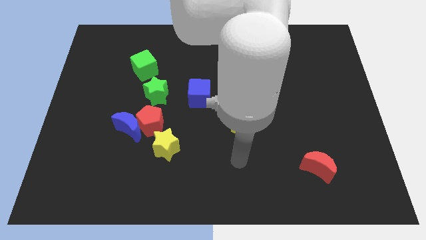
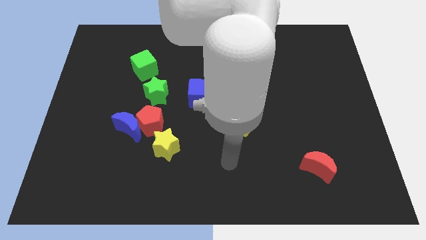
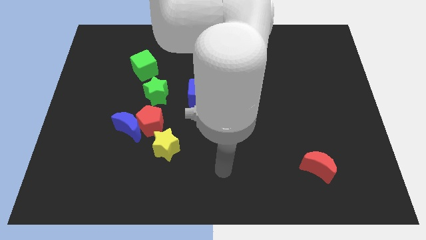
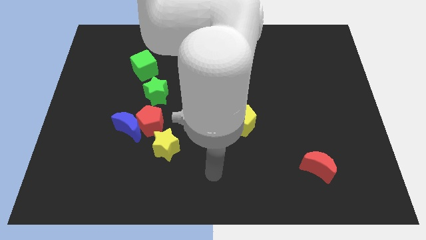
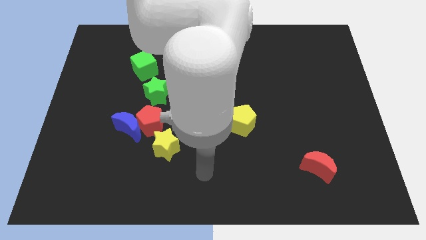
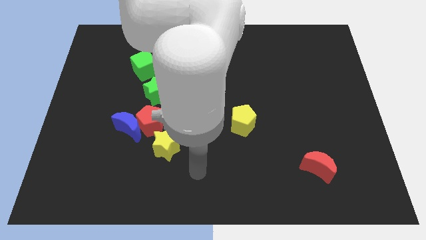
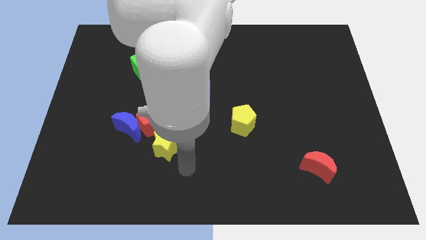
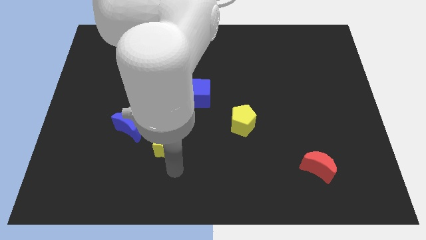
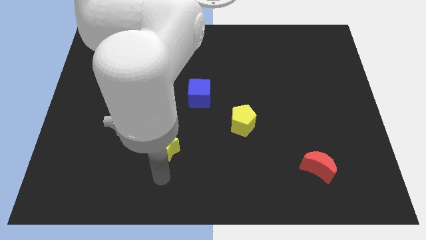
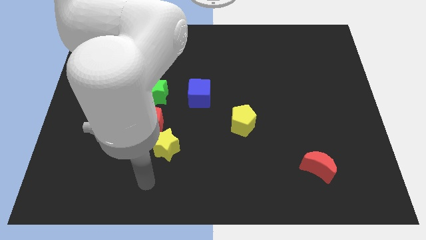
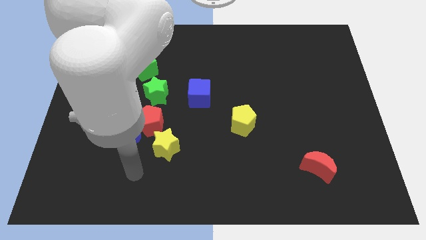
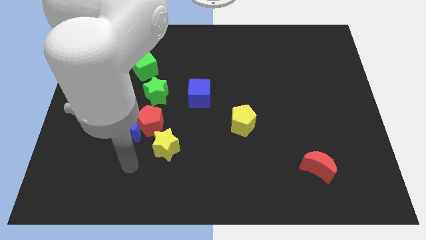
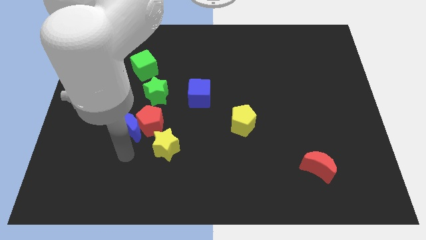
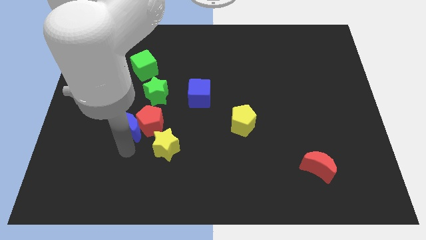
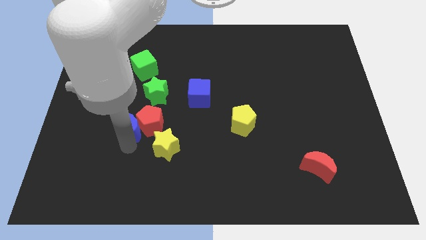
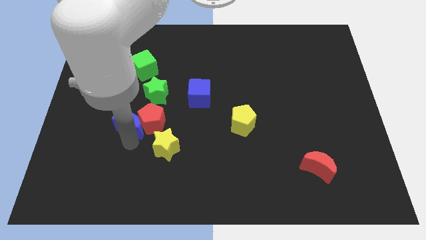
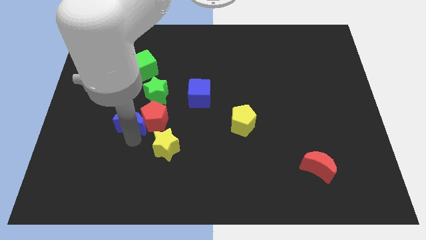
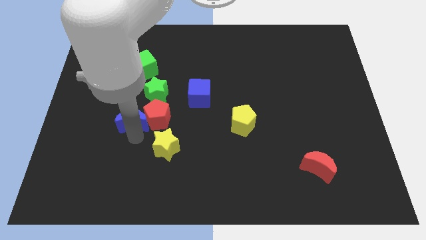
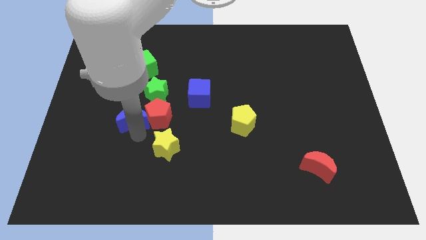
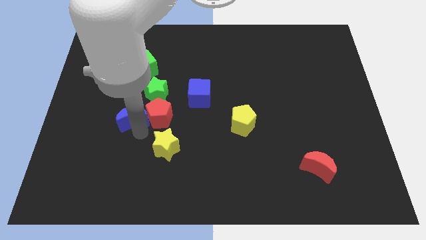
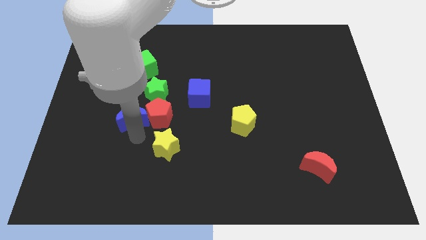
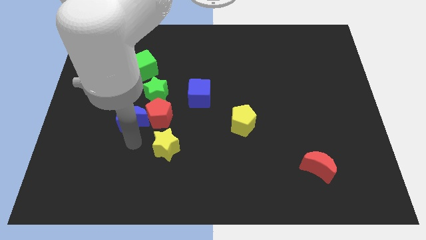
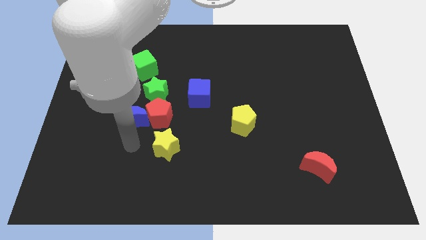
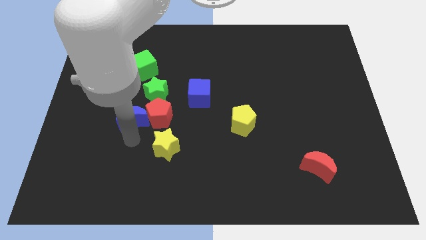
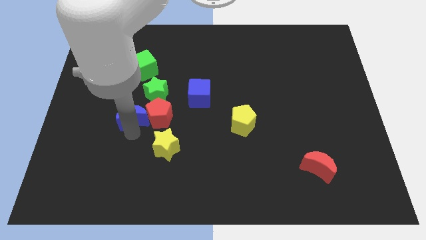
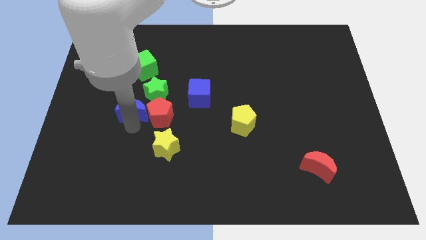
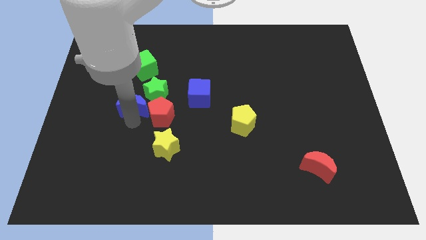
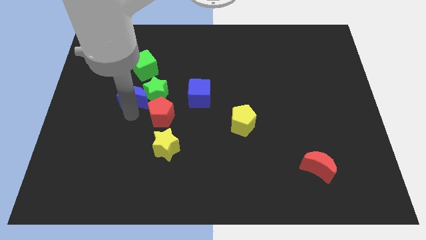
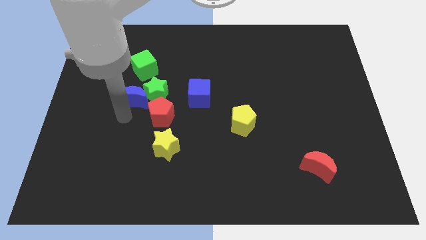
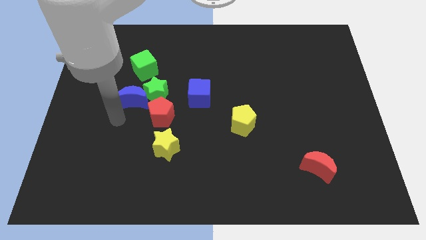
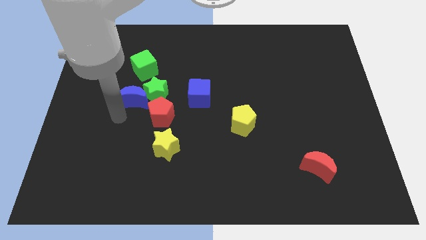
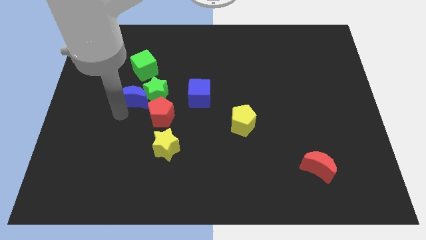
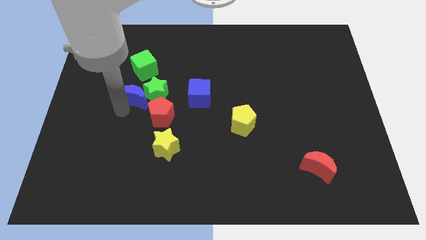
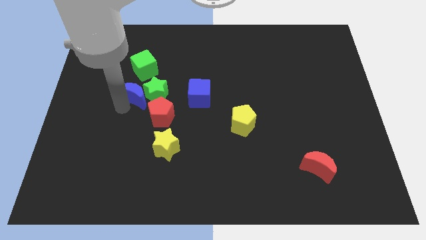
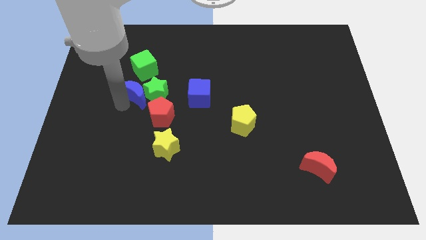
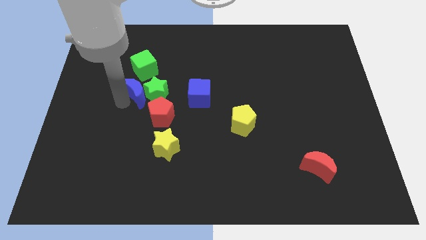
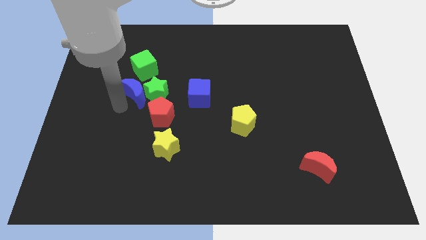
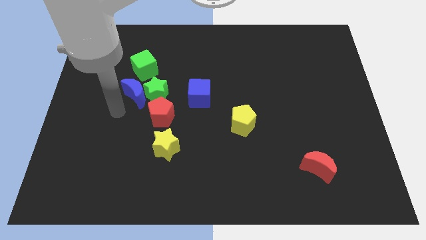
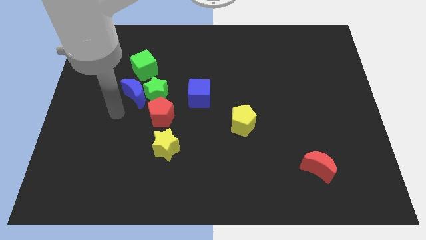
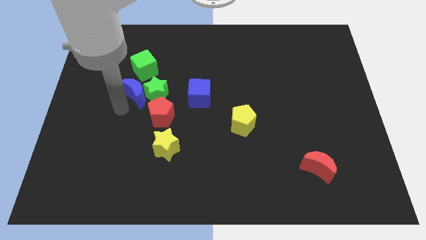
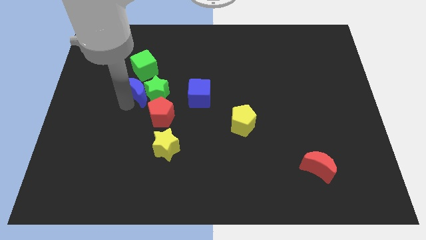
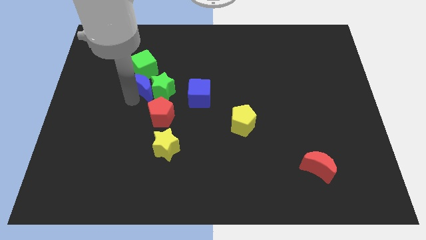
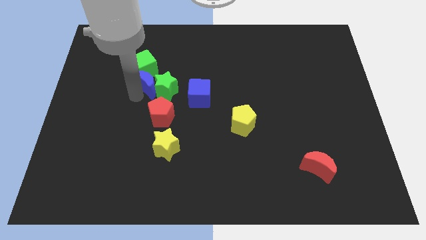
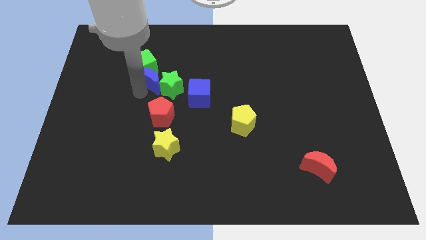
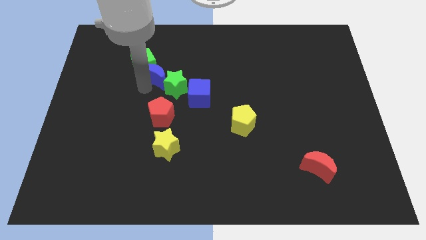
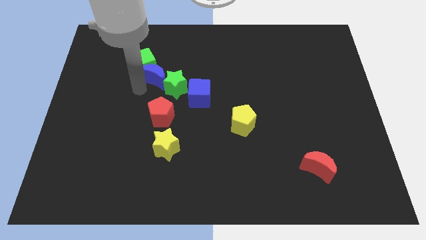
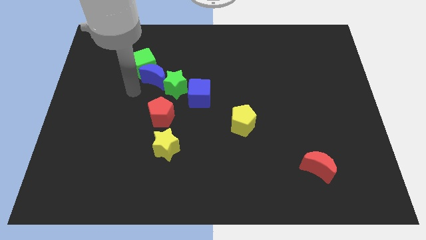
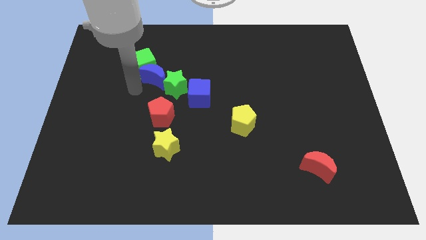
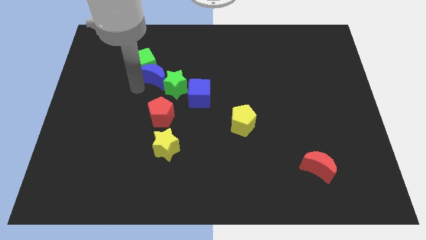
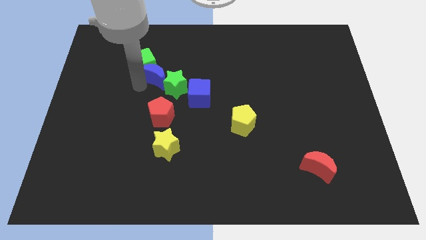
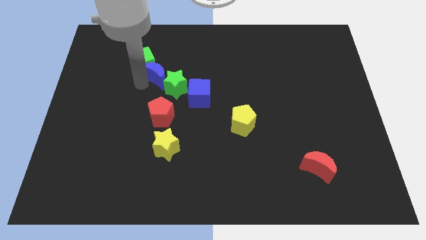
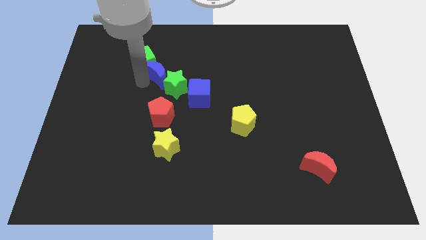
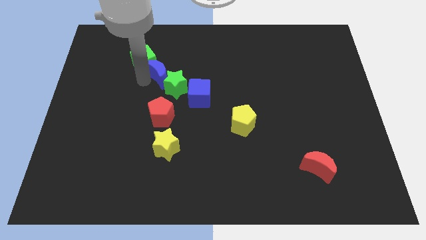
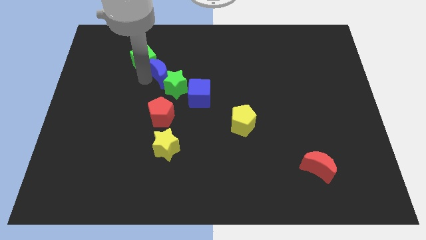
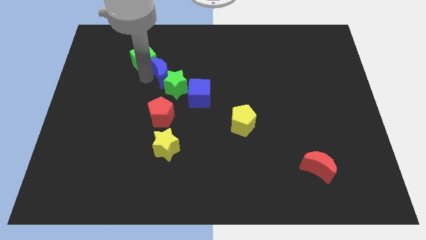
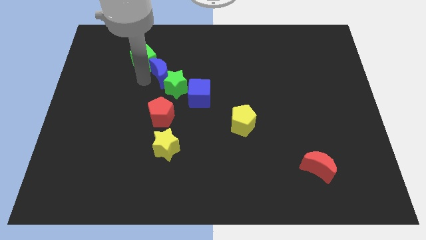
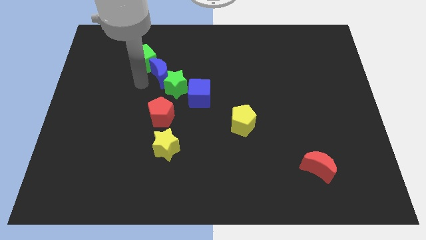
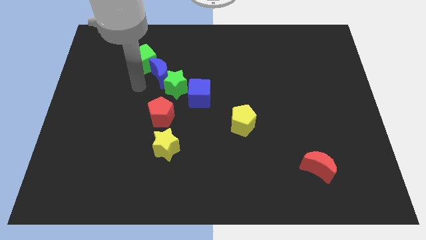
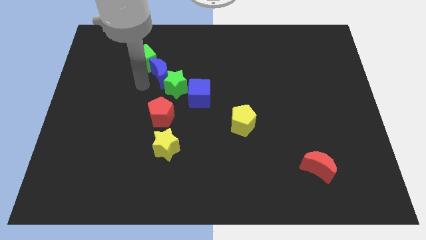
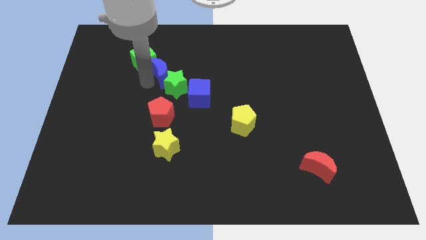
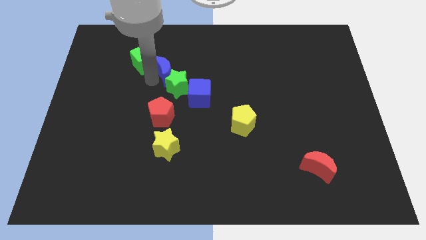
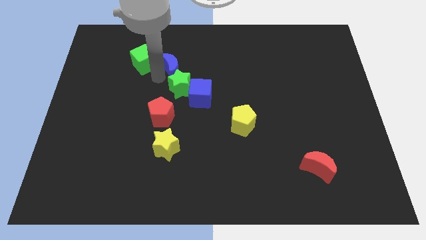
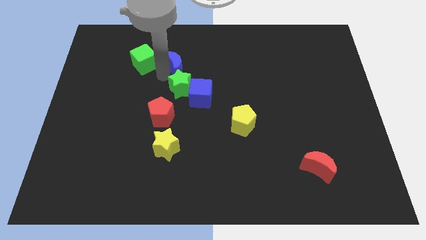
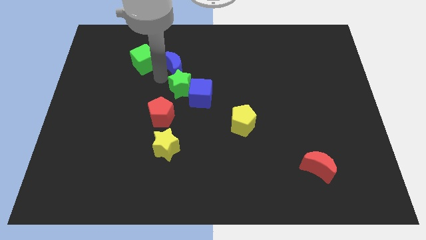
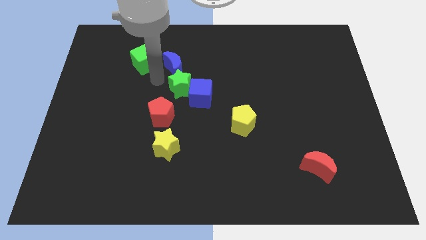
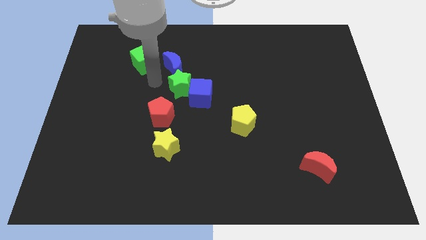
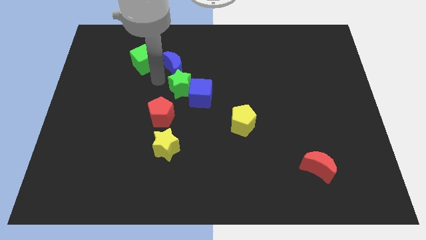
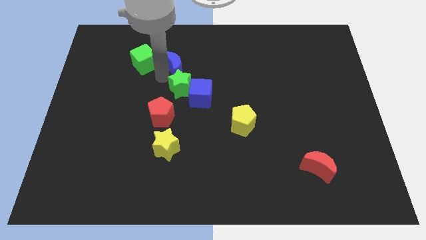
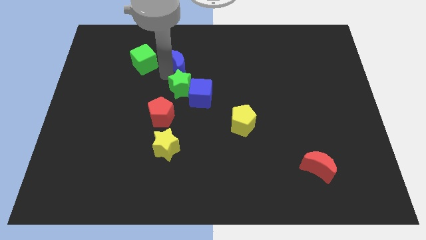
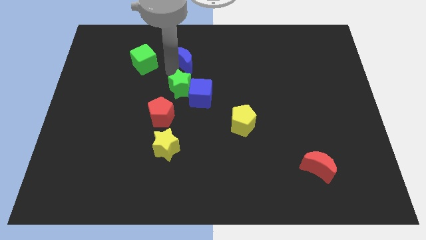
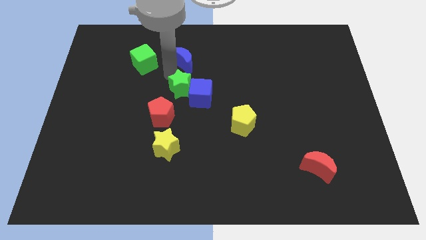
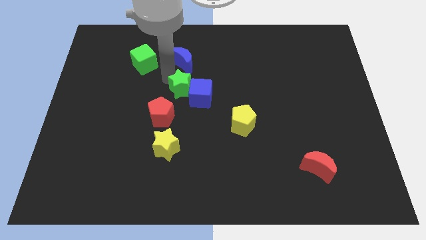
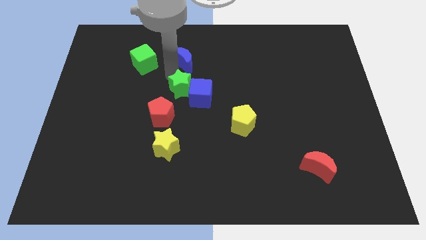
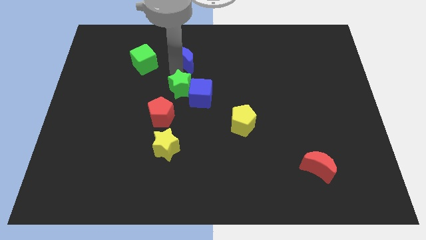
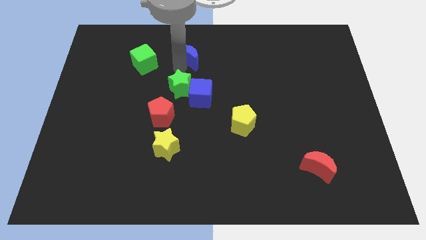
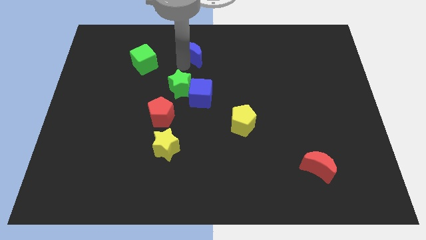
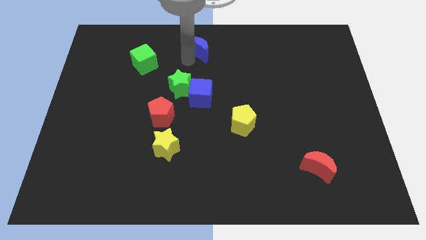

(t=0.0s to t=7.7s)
push the blue moon to the top
